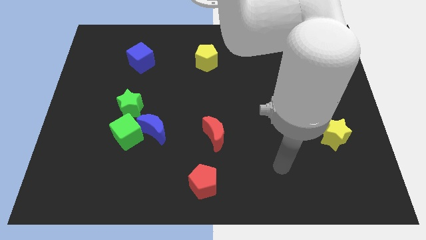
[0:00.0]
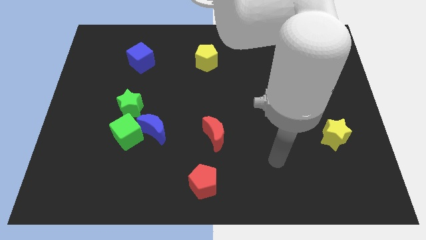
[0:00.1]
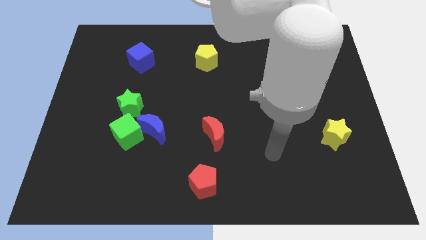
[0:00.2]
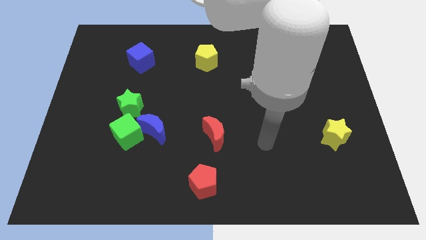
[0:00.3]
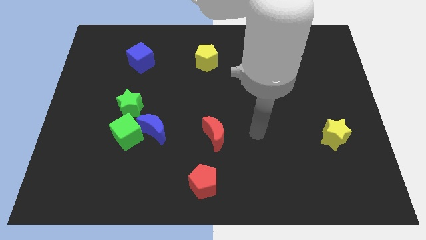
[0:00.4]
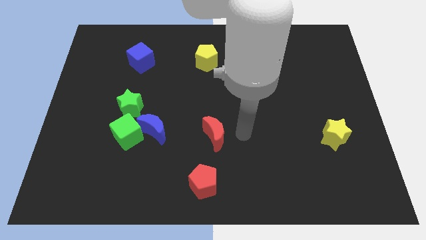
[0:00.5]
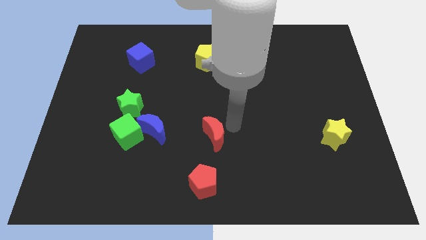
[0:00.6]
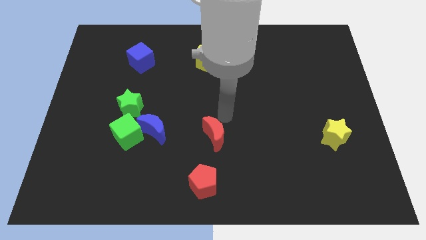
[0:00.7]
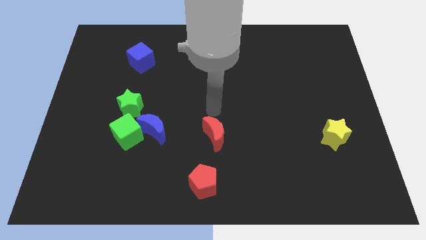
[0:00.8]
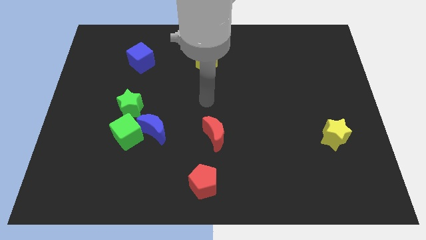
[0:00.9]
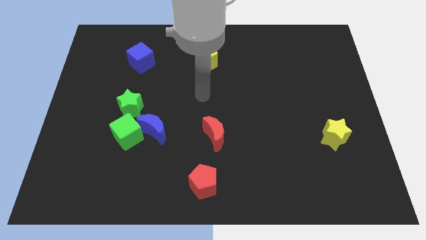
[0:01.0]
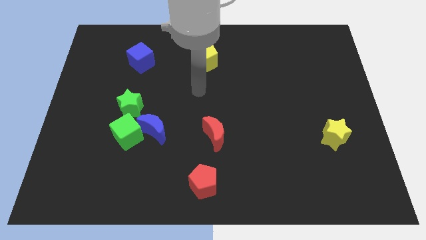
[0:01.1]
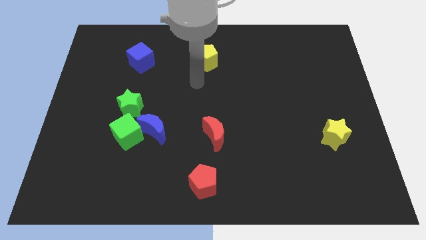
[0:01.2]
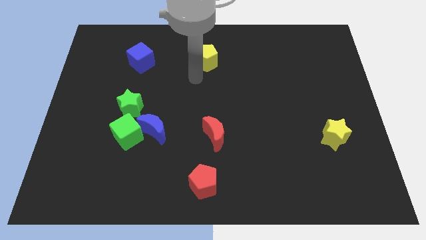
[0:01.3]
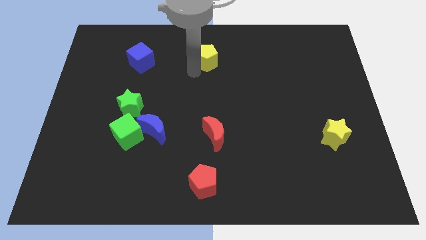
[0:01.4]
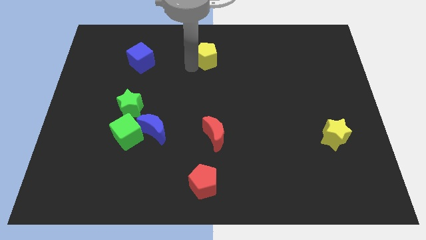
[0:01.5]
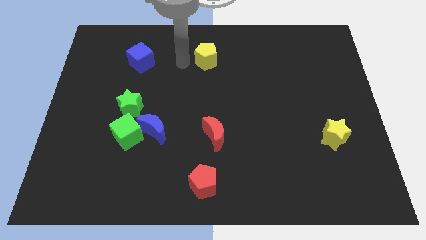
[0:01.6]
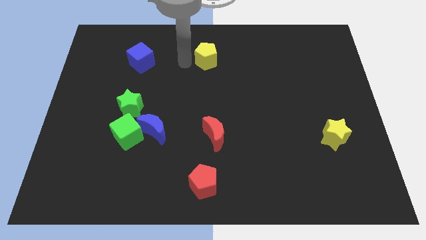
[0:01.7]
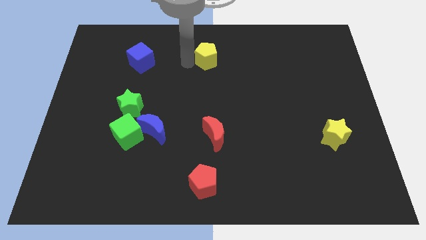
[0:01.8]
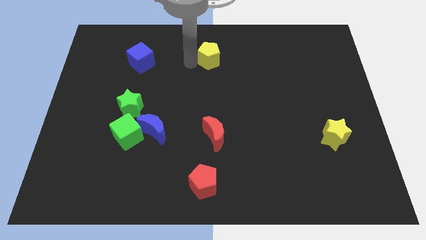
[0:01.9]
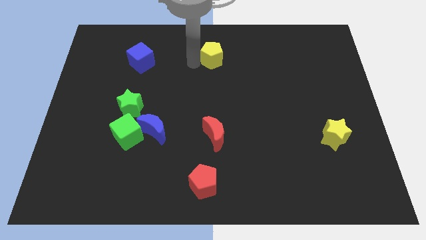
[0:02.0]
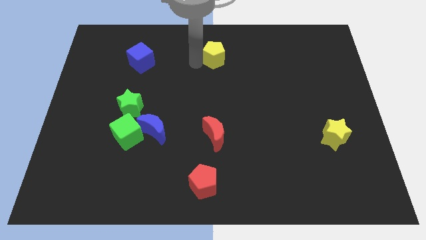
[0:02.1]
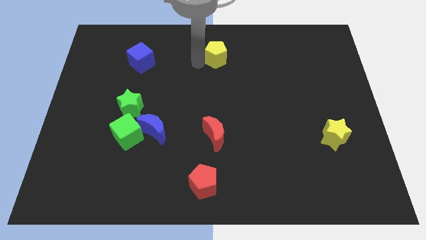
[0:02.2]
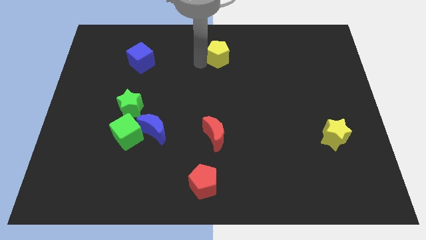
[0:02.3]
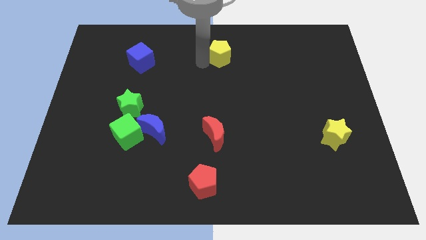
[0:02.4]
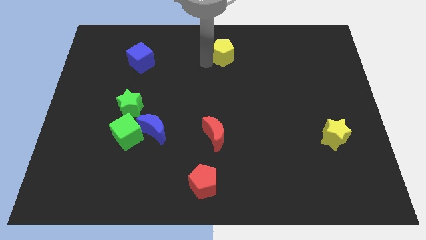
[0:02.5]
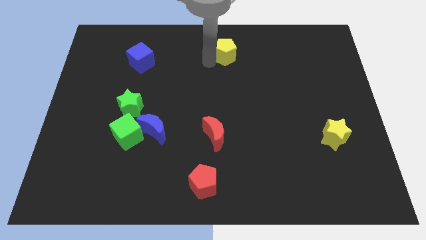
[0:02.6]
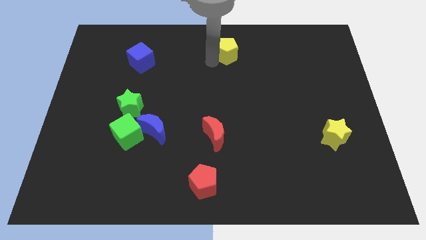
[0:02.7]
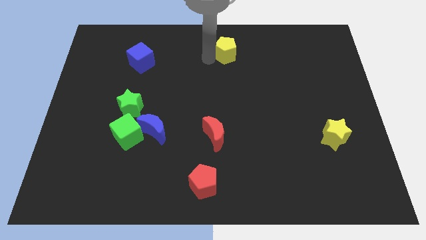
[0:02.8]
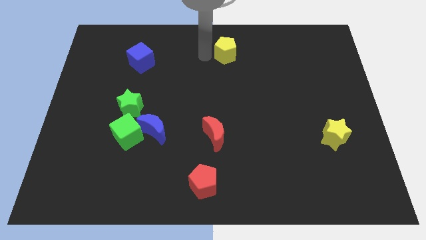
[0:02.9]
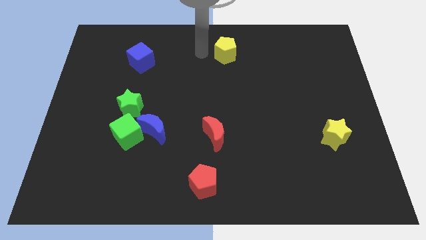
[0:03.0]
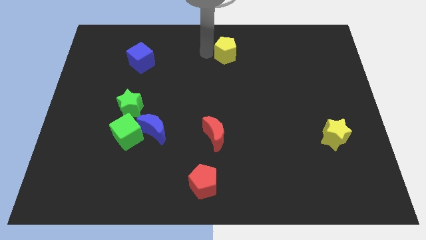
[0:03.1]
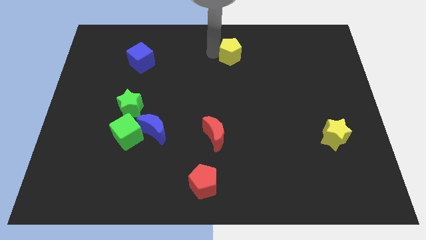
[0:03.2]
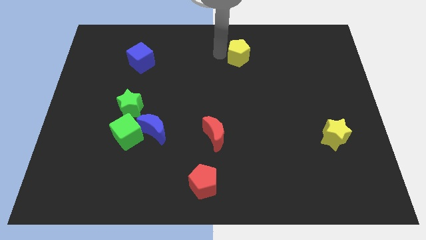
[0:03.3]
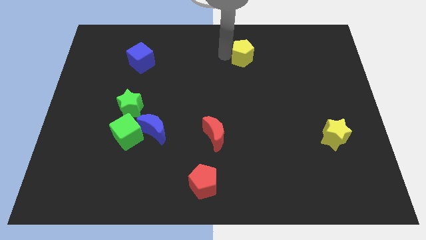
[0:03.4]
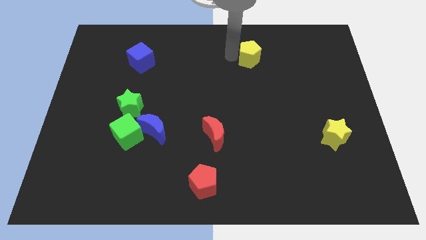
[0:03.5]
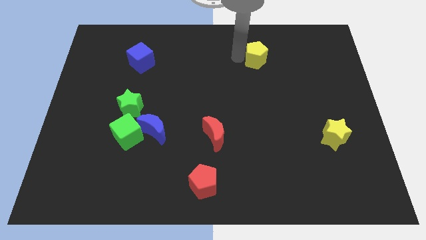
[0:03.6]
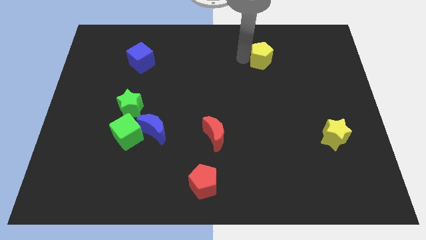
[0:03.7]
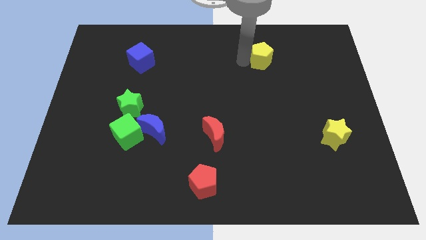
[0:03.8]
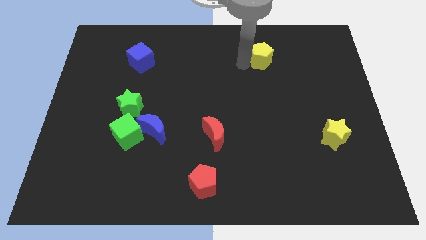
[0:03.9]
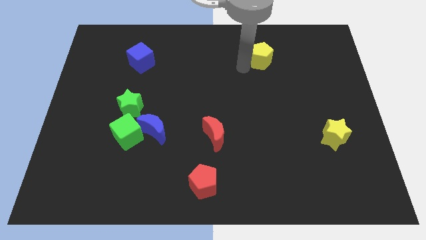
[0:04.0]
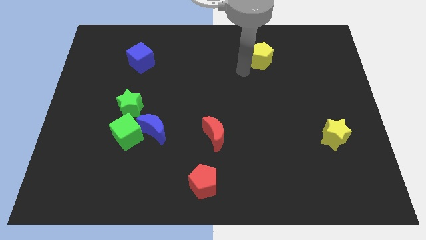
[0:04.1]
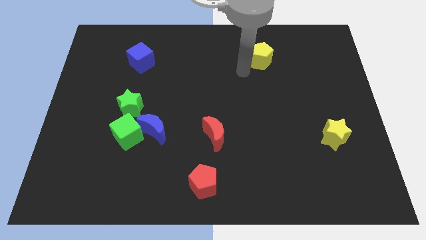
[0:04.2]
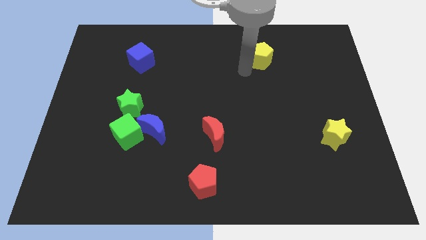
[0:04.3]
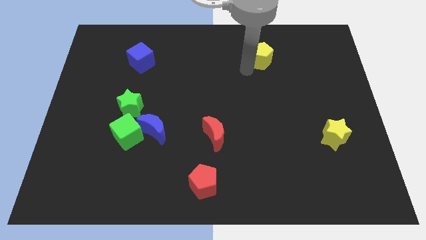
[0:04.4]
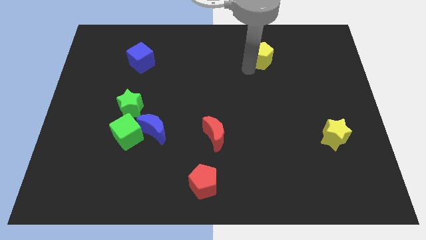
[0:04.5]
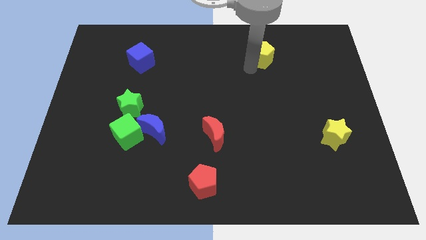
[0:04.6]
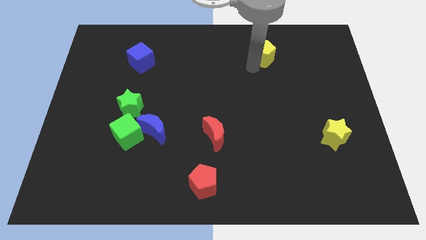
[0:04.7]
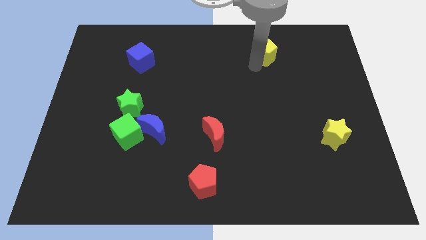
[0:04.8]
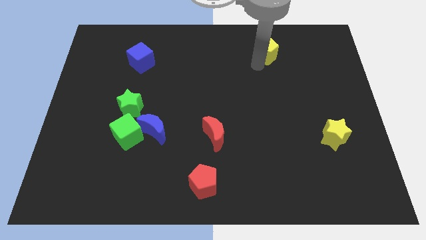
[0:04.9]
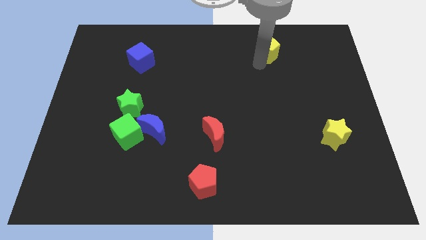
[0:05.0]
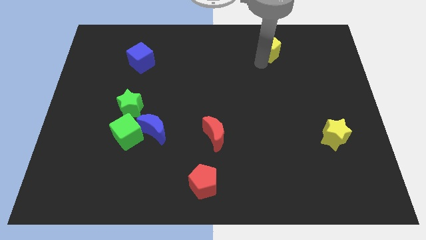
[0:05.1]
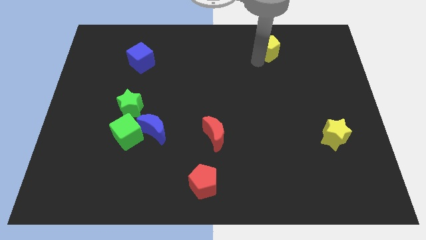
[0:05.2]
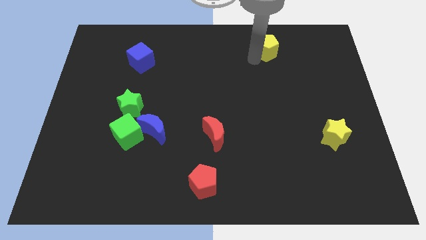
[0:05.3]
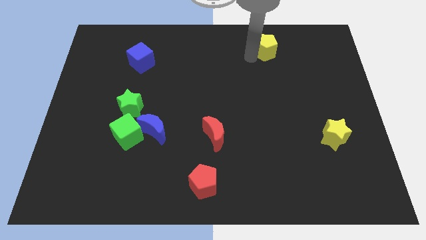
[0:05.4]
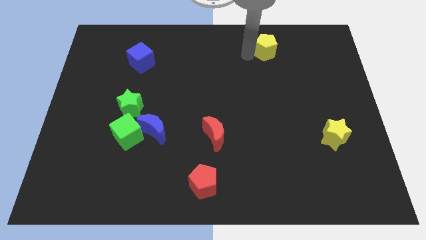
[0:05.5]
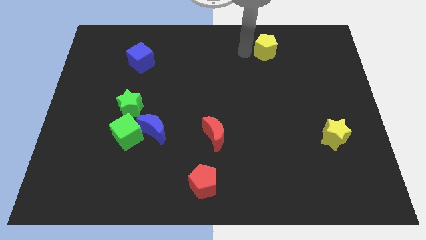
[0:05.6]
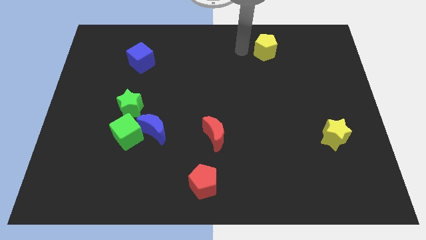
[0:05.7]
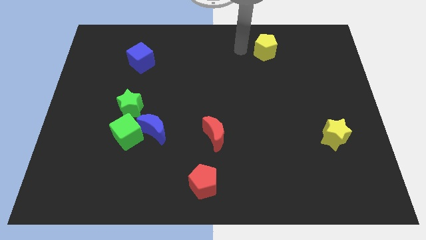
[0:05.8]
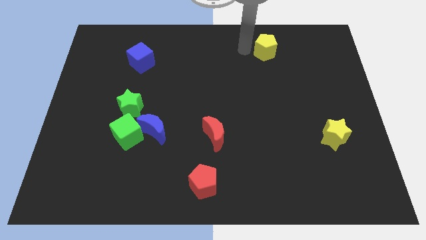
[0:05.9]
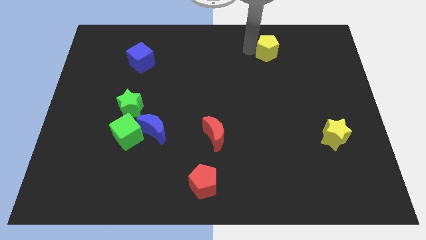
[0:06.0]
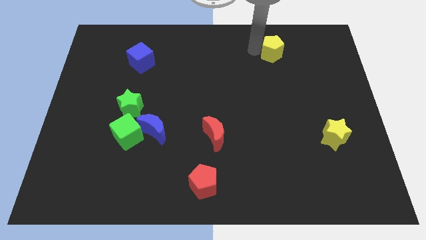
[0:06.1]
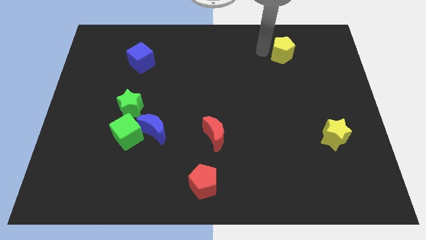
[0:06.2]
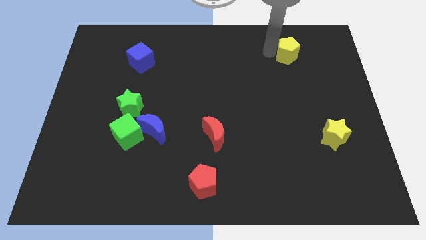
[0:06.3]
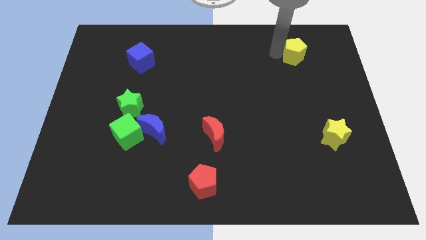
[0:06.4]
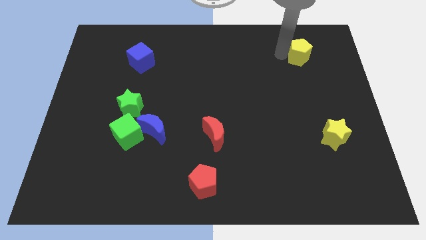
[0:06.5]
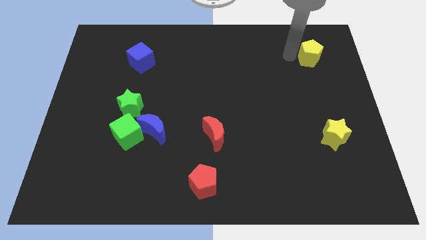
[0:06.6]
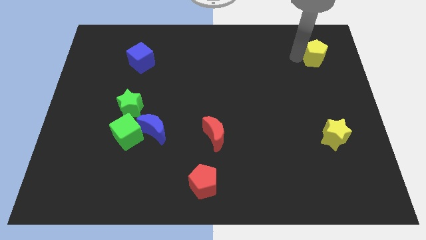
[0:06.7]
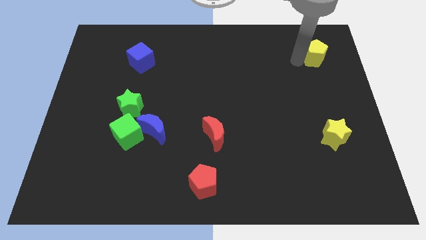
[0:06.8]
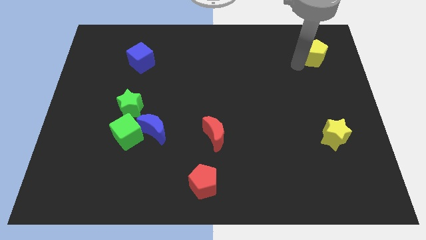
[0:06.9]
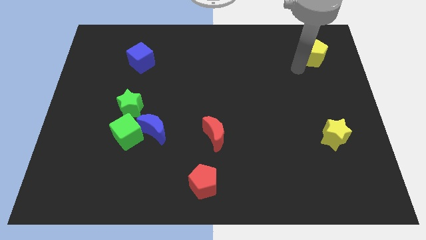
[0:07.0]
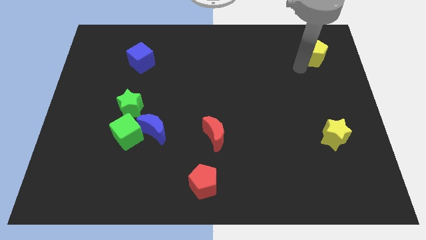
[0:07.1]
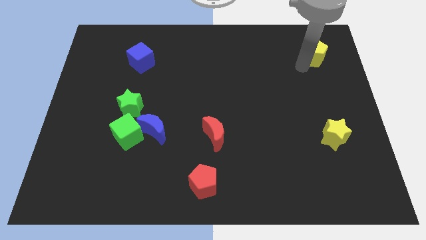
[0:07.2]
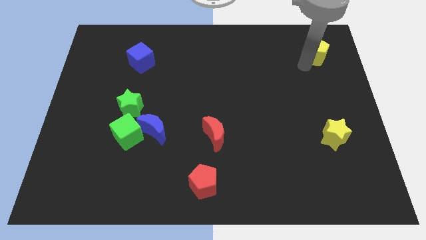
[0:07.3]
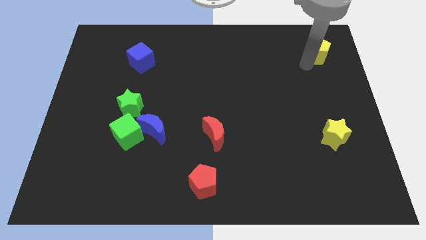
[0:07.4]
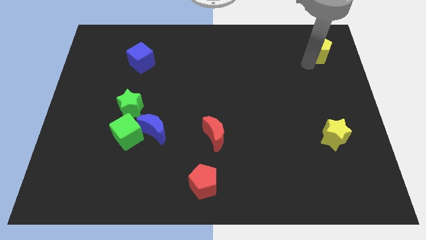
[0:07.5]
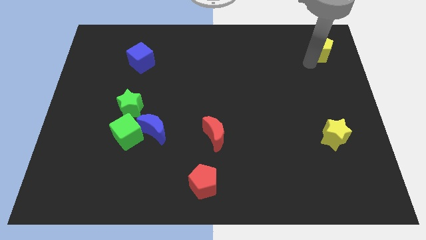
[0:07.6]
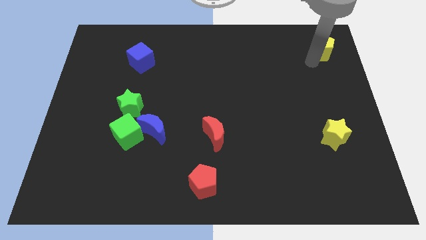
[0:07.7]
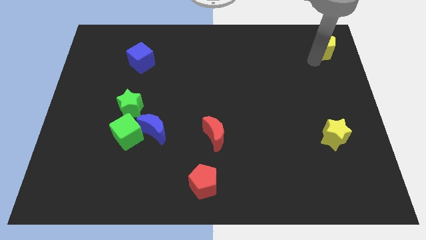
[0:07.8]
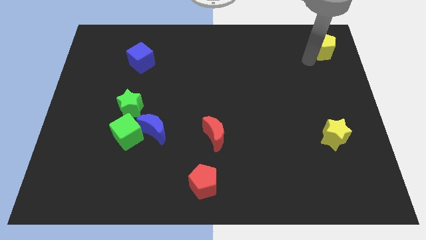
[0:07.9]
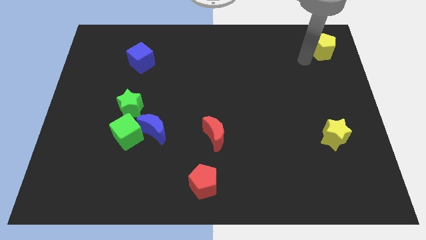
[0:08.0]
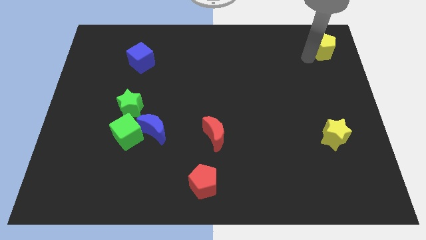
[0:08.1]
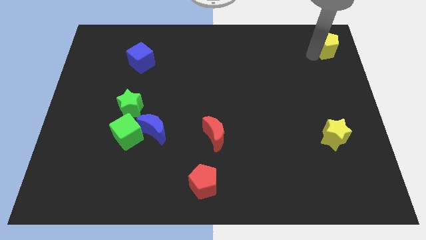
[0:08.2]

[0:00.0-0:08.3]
put the yellow pentagon to the upper right corner
